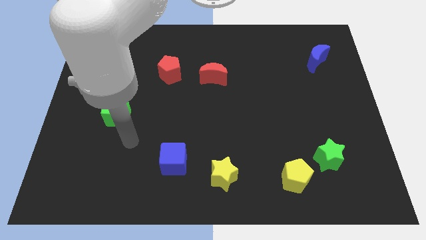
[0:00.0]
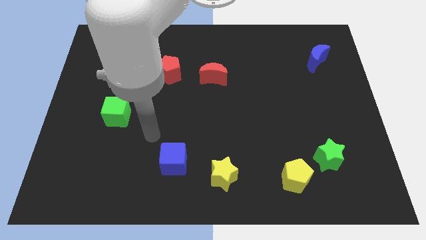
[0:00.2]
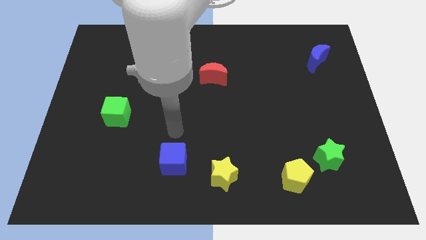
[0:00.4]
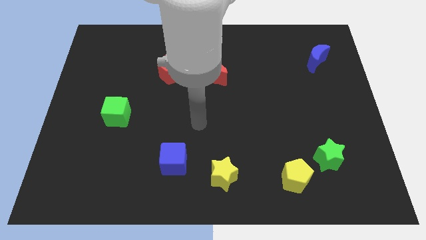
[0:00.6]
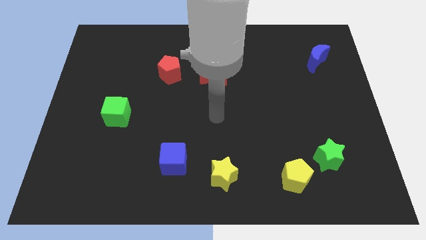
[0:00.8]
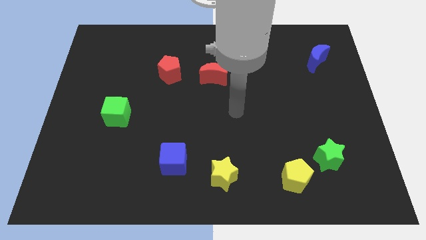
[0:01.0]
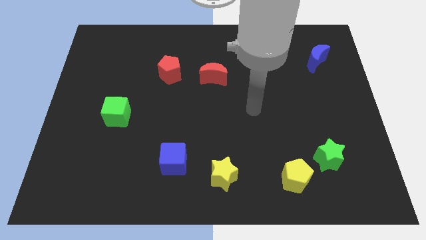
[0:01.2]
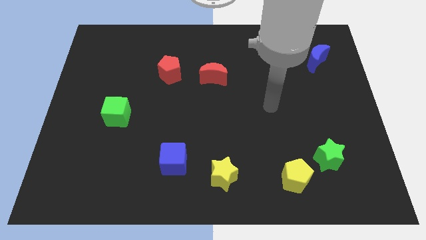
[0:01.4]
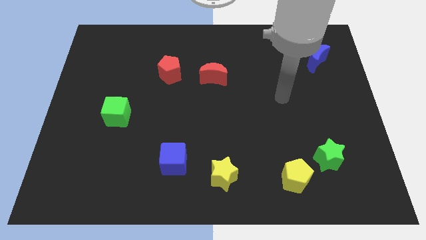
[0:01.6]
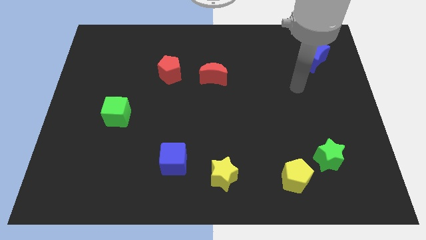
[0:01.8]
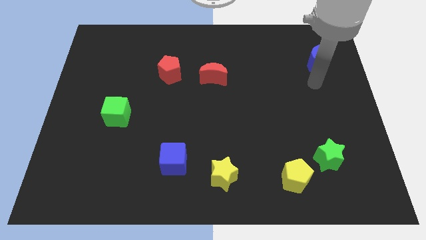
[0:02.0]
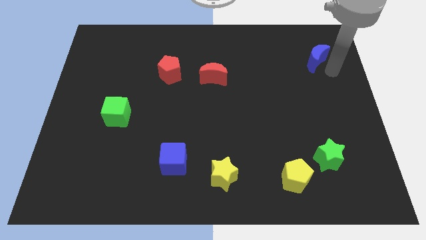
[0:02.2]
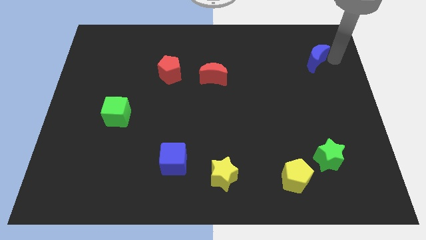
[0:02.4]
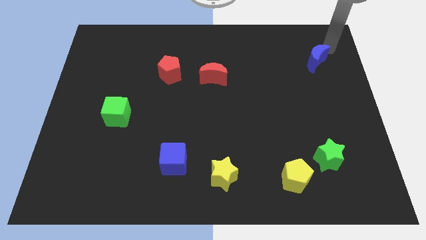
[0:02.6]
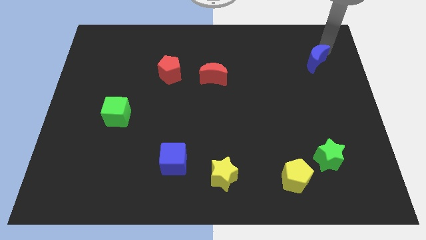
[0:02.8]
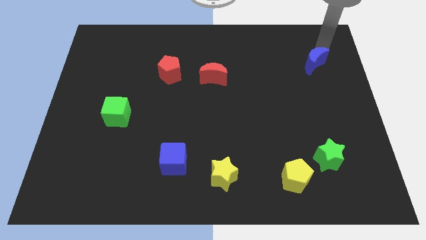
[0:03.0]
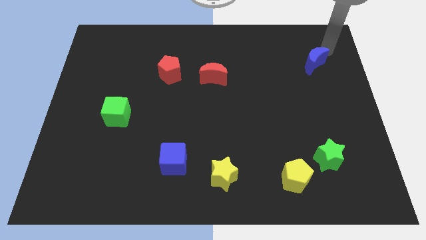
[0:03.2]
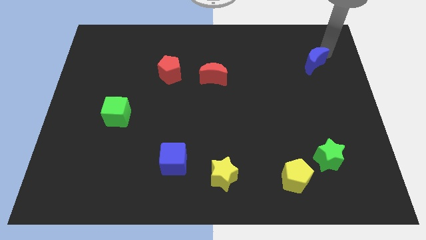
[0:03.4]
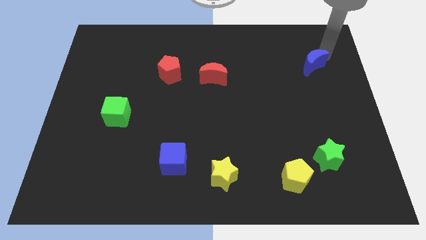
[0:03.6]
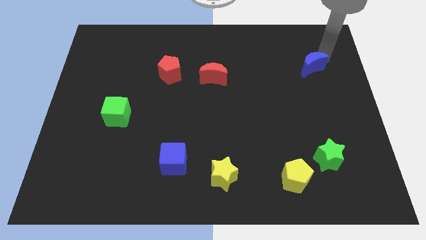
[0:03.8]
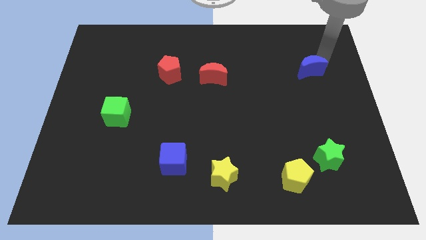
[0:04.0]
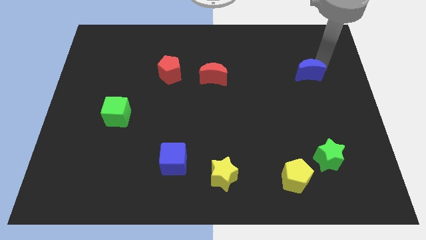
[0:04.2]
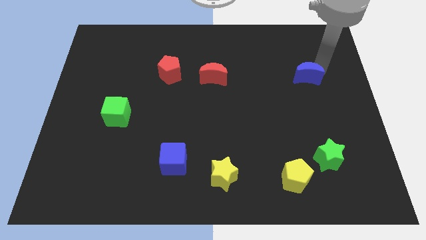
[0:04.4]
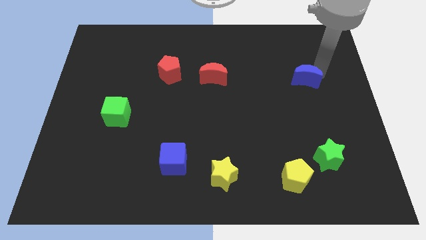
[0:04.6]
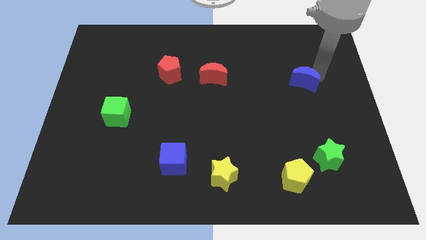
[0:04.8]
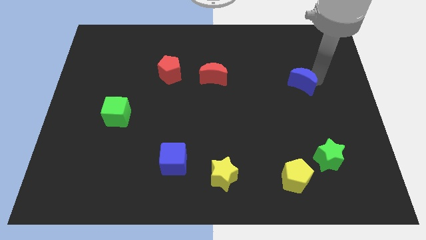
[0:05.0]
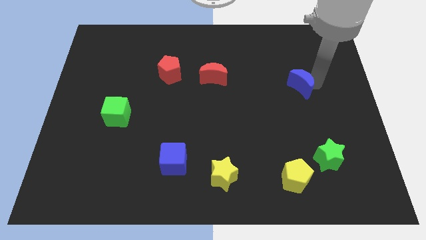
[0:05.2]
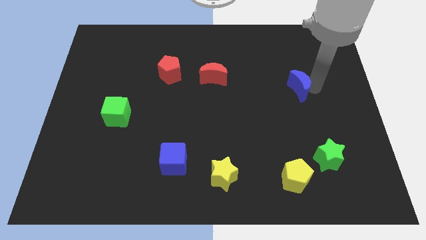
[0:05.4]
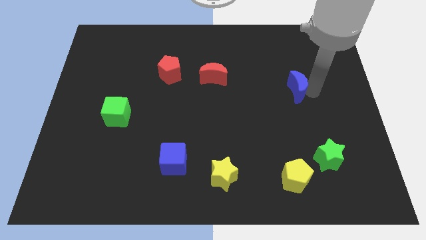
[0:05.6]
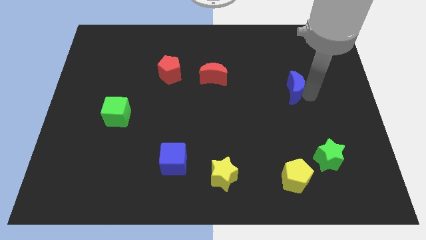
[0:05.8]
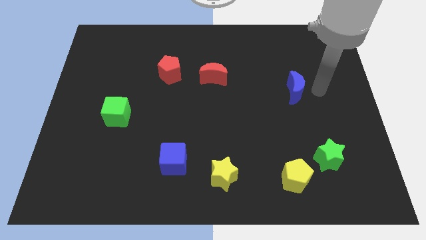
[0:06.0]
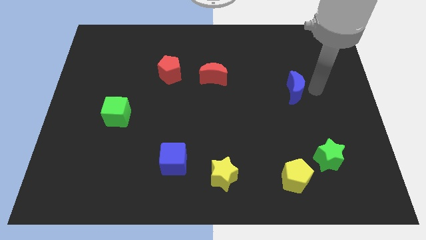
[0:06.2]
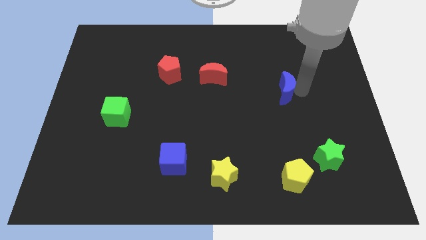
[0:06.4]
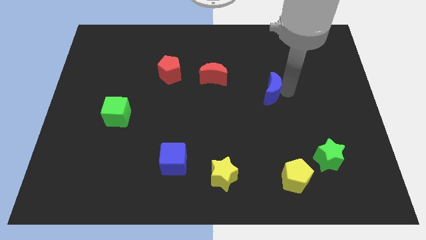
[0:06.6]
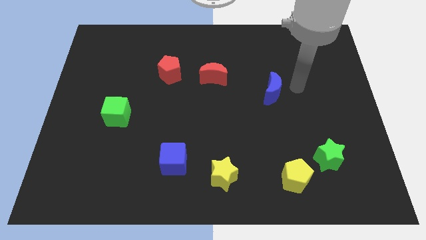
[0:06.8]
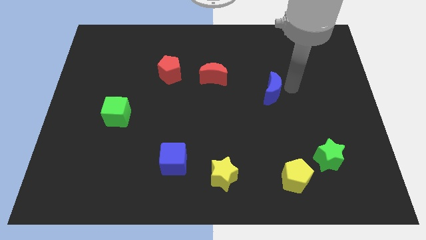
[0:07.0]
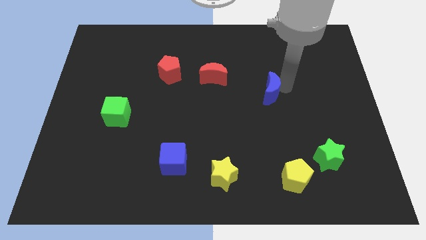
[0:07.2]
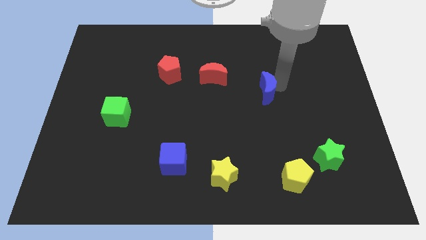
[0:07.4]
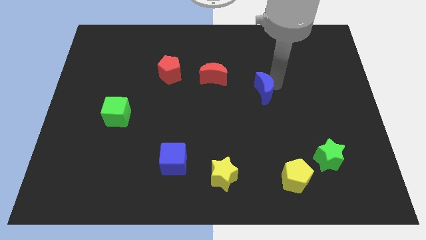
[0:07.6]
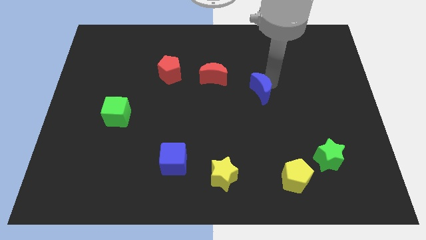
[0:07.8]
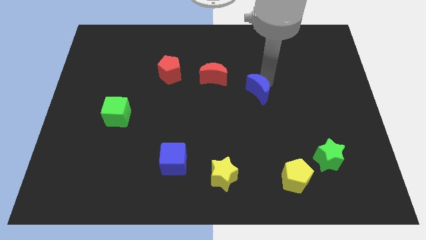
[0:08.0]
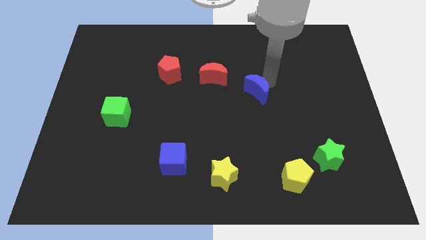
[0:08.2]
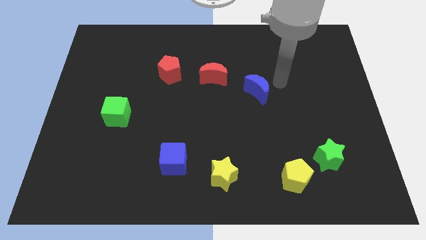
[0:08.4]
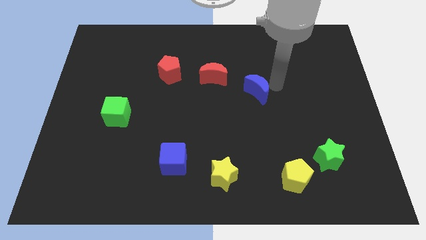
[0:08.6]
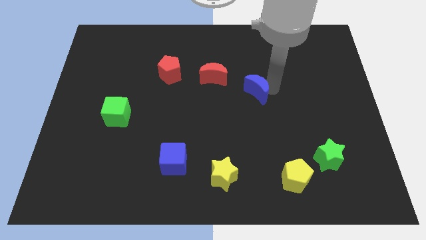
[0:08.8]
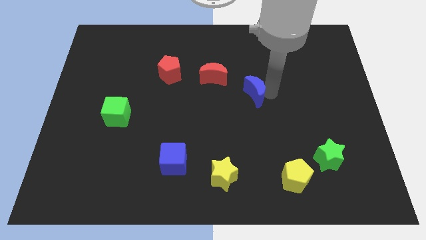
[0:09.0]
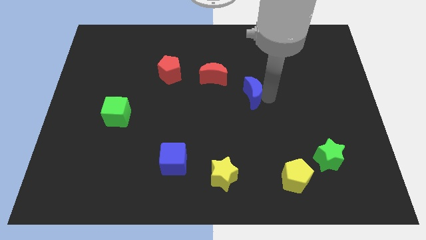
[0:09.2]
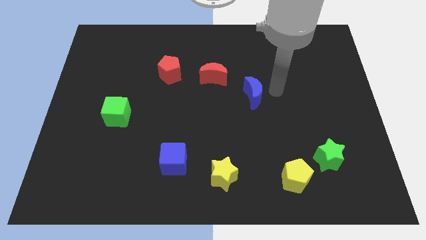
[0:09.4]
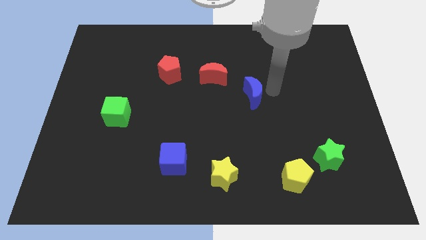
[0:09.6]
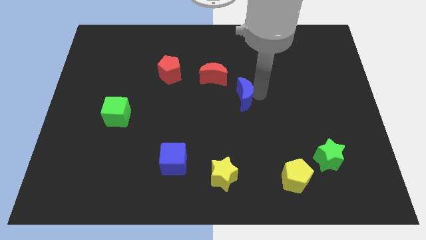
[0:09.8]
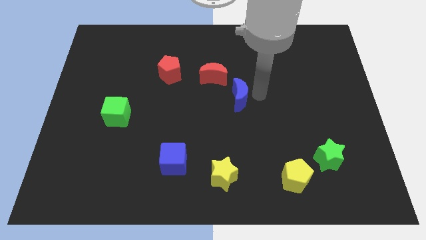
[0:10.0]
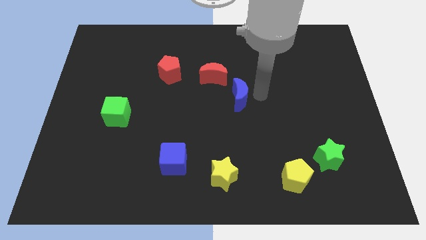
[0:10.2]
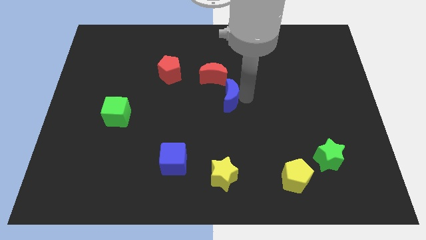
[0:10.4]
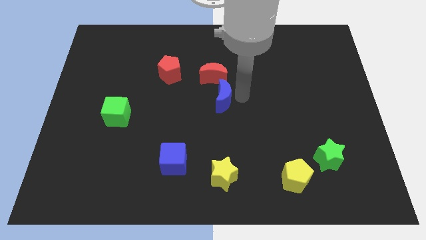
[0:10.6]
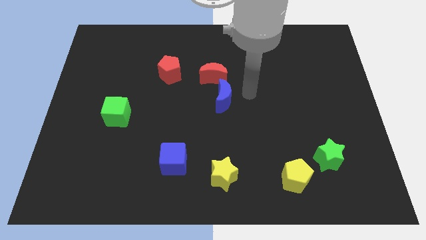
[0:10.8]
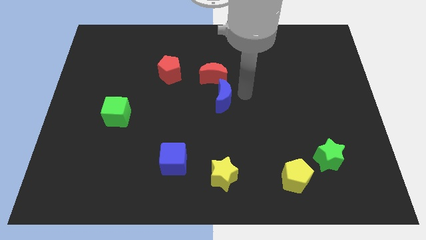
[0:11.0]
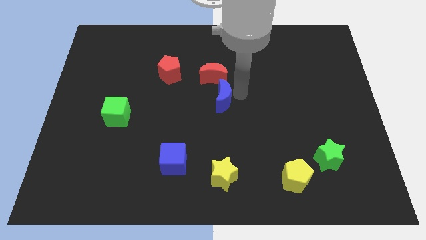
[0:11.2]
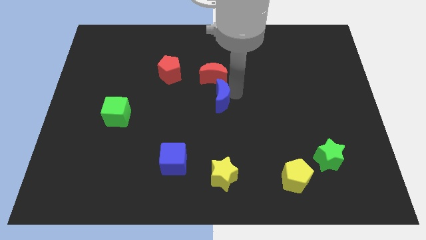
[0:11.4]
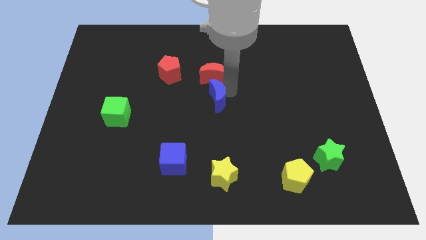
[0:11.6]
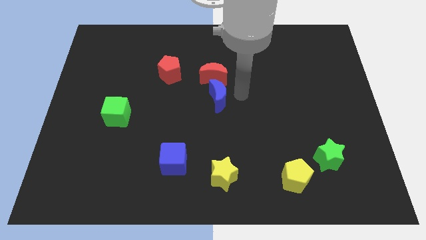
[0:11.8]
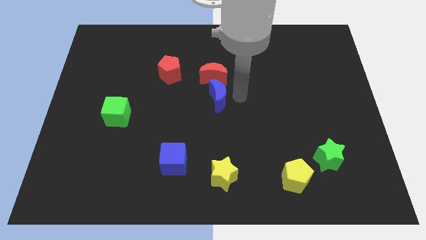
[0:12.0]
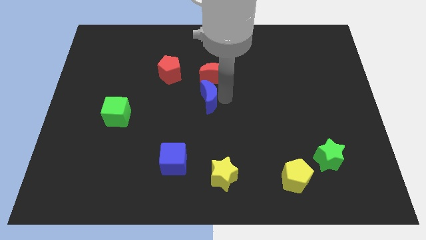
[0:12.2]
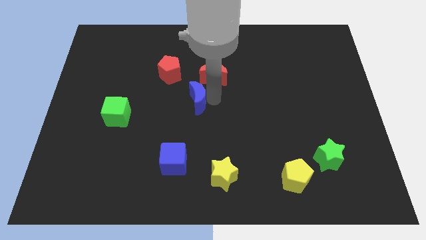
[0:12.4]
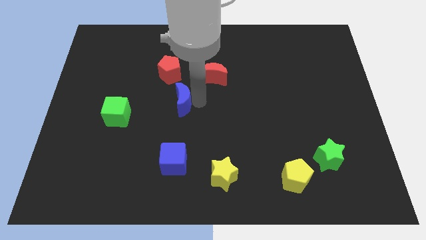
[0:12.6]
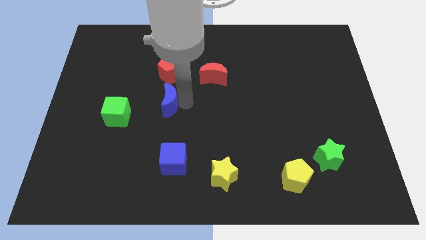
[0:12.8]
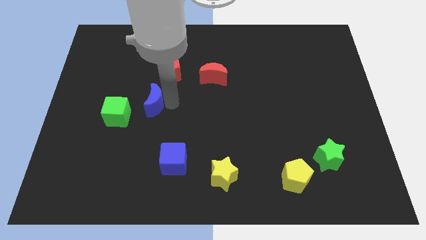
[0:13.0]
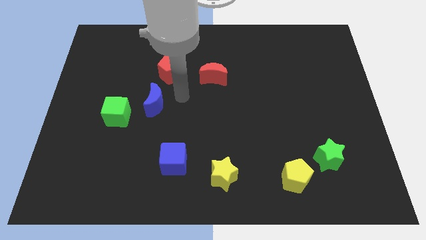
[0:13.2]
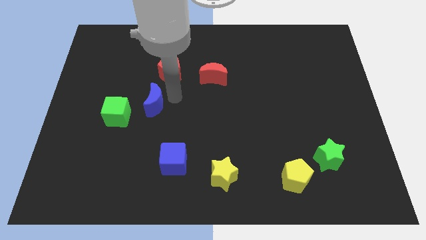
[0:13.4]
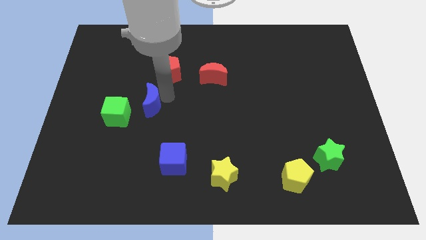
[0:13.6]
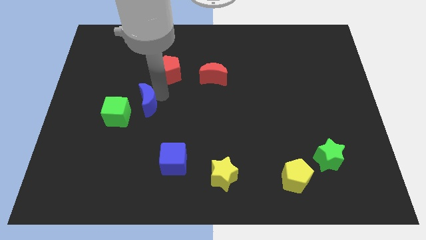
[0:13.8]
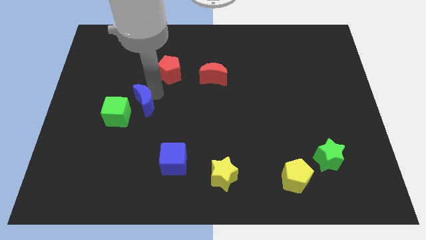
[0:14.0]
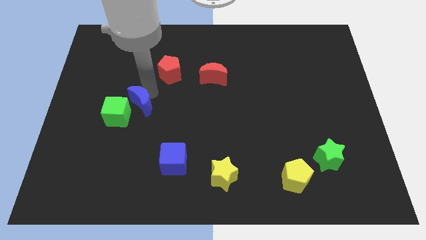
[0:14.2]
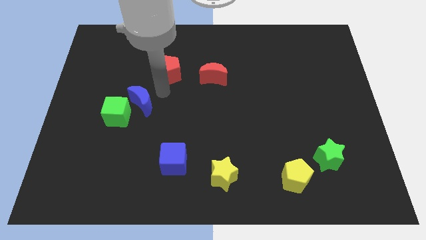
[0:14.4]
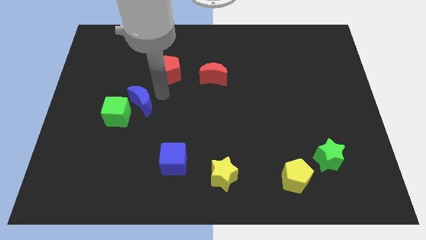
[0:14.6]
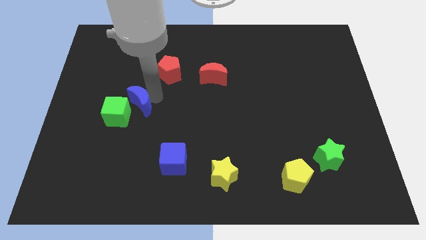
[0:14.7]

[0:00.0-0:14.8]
push the blue moon next to the green cube
